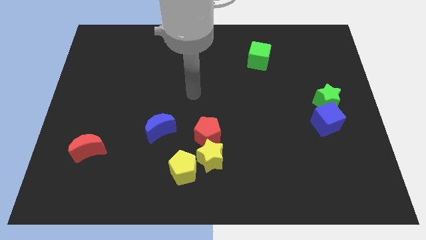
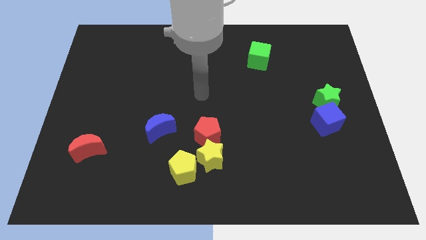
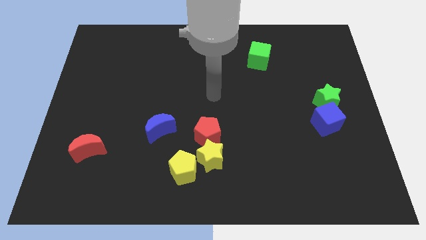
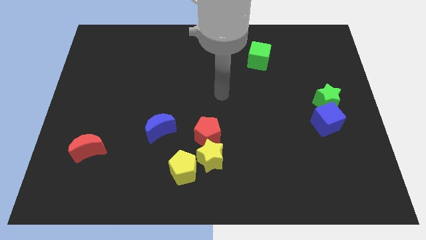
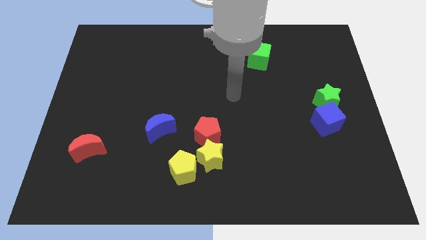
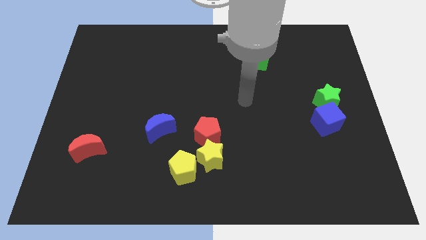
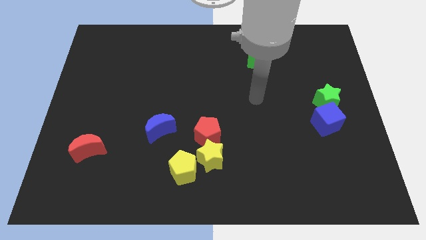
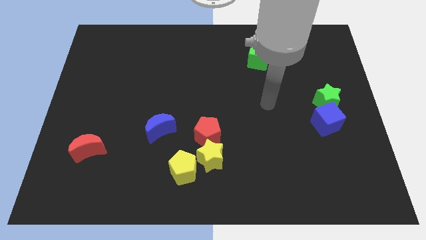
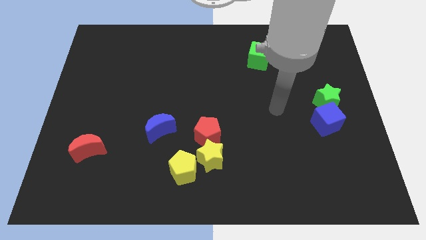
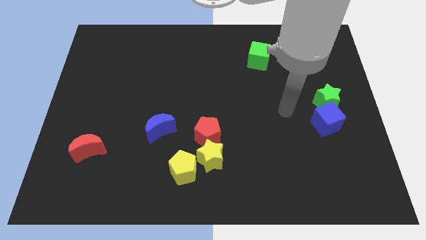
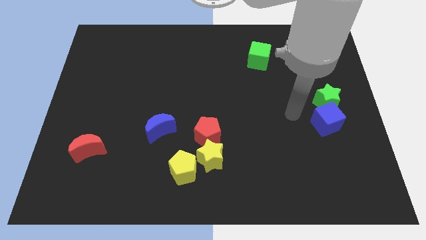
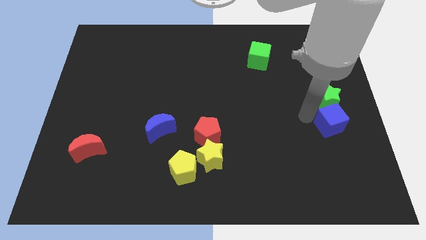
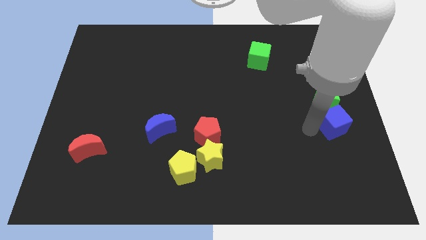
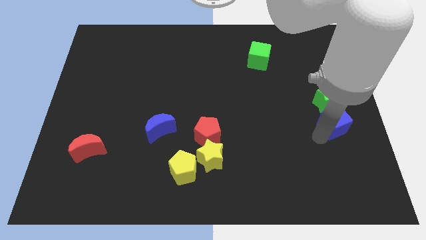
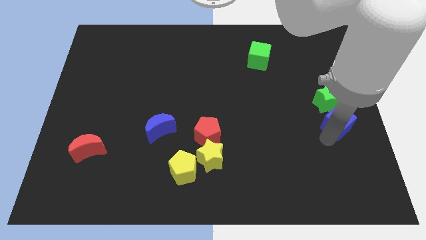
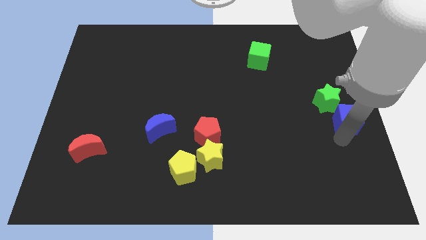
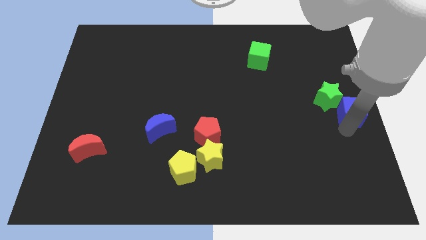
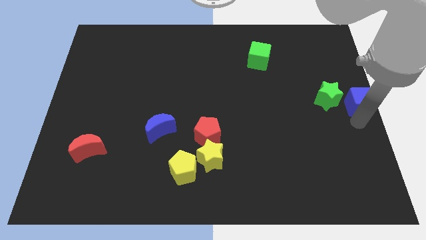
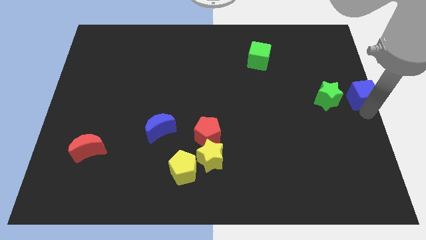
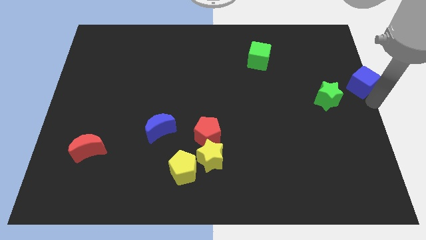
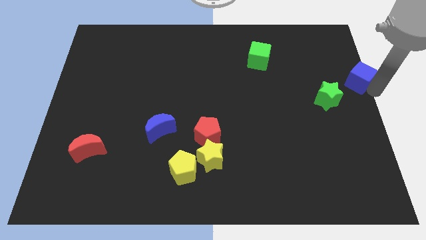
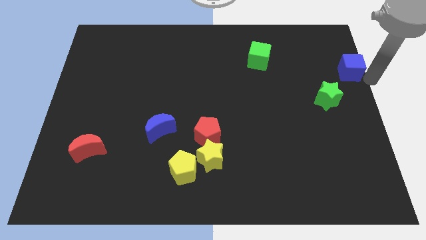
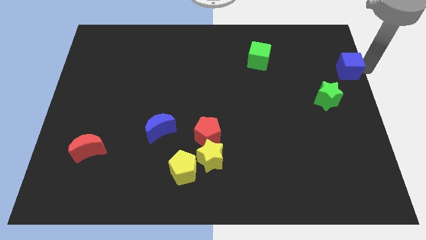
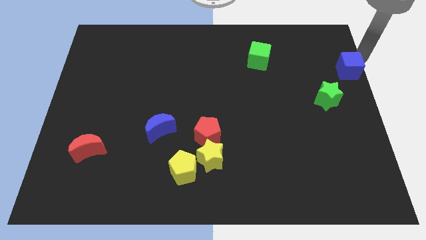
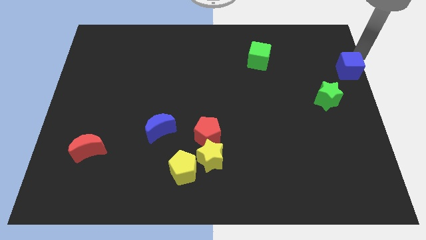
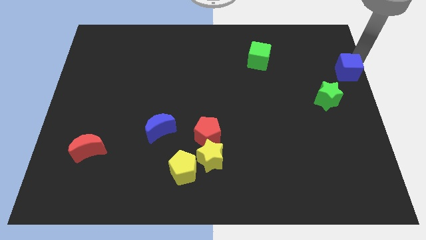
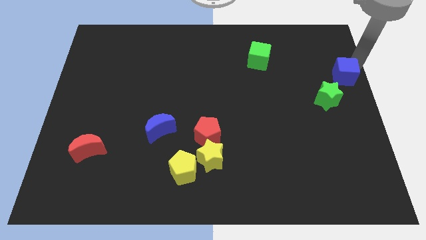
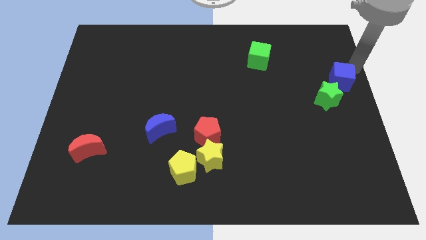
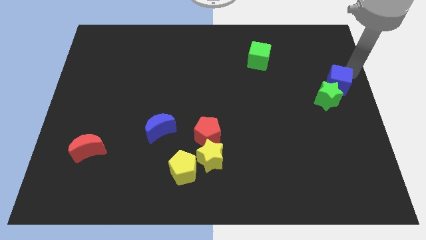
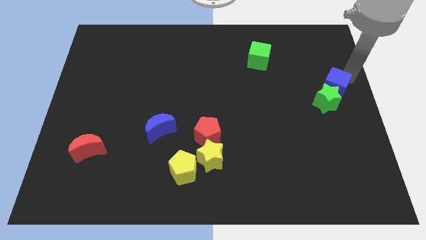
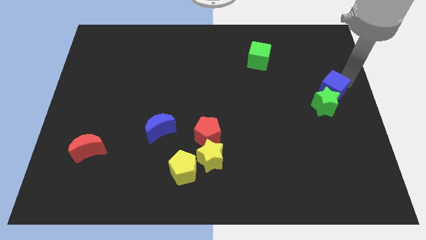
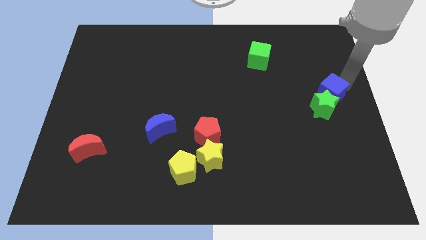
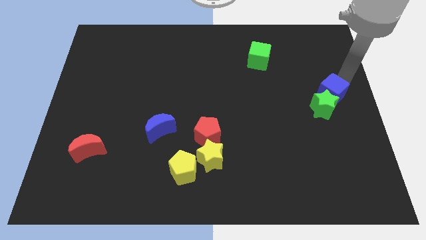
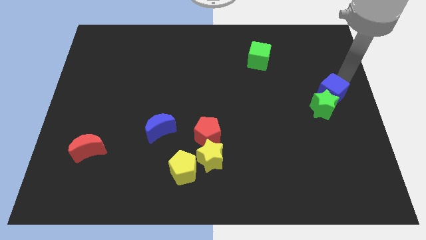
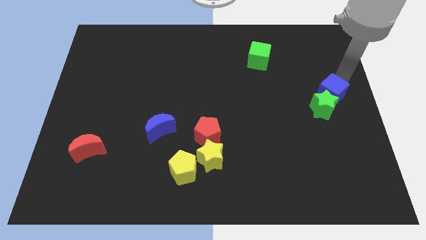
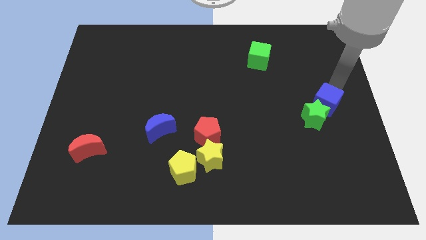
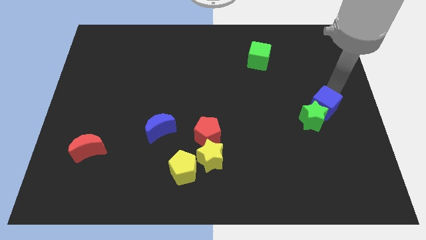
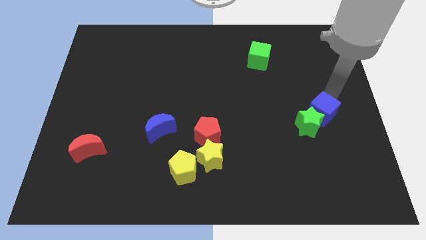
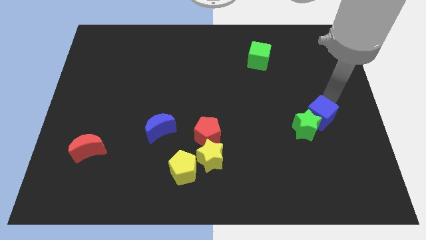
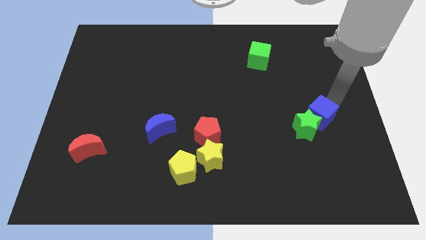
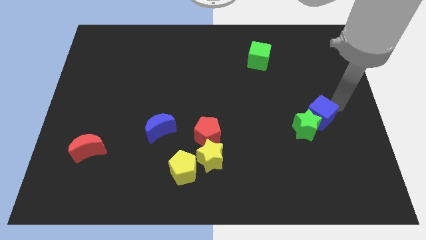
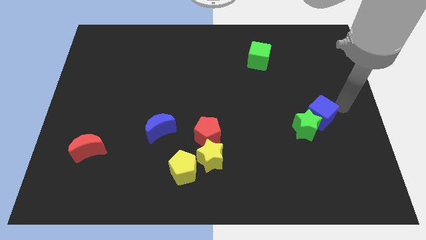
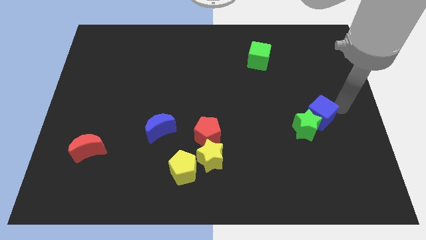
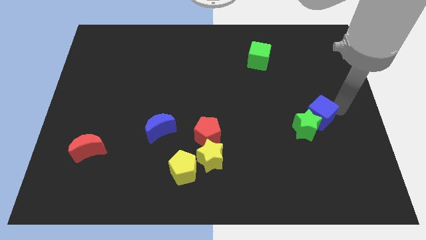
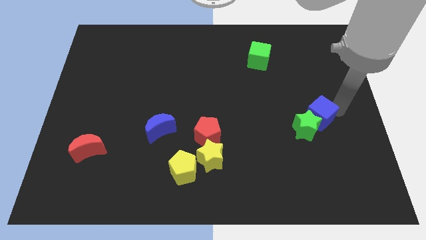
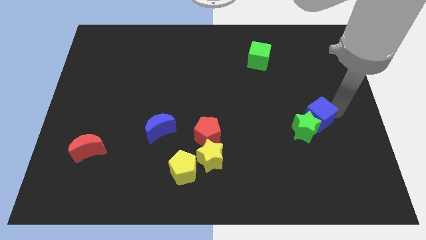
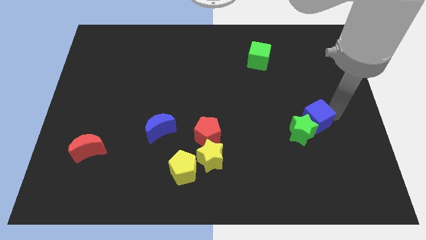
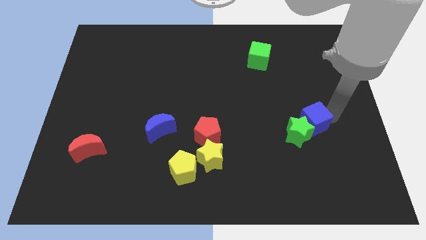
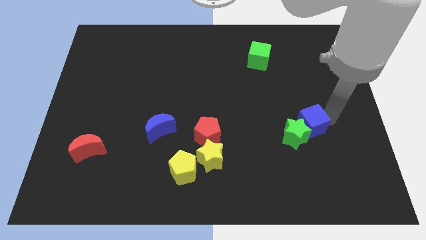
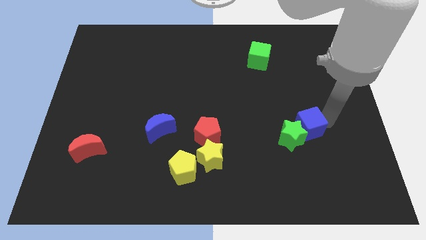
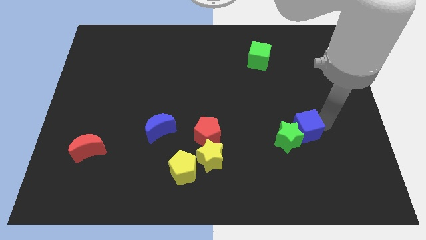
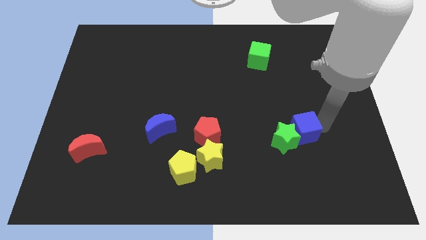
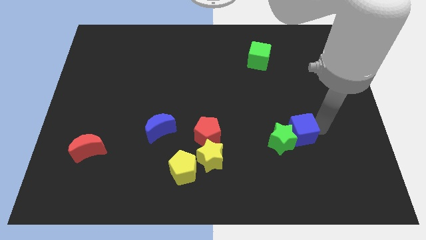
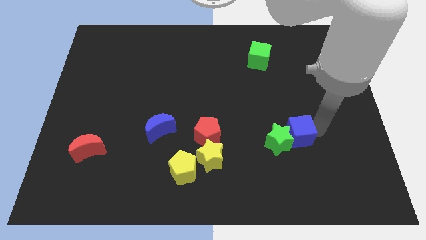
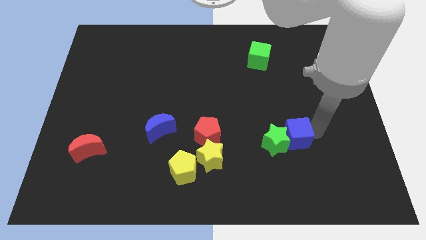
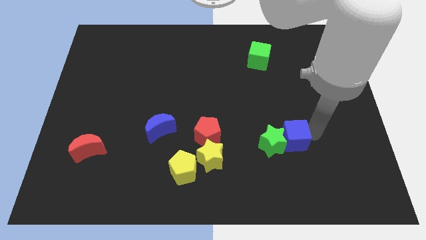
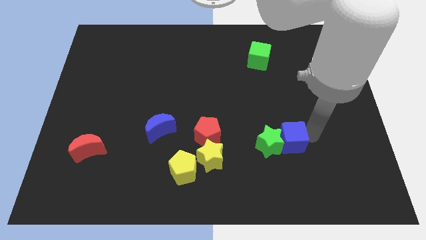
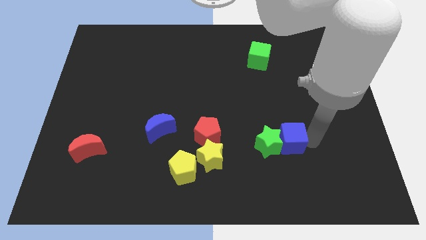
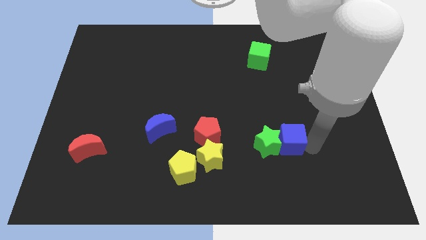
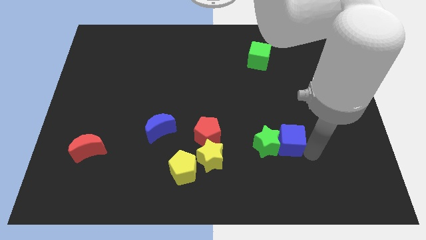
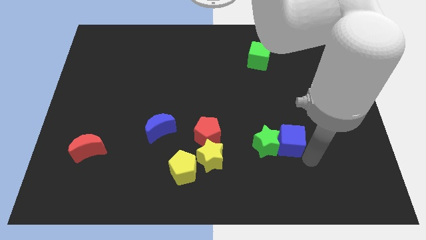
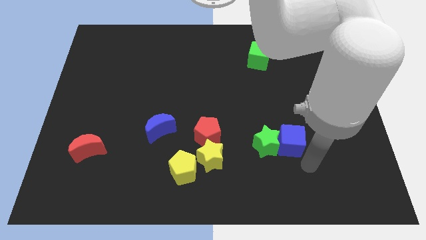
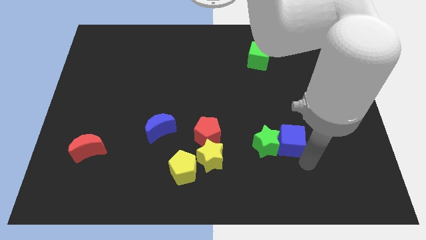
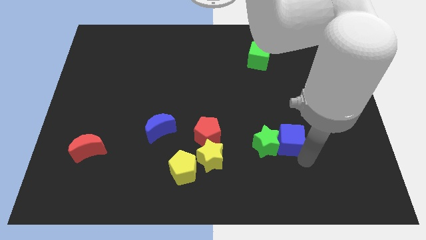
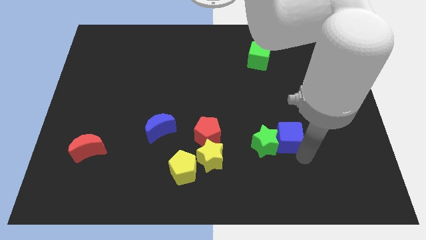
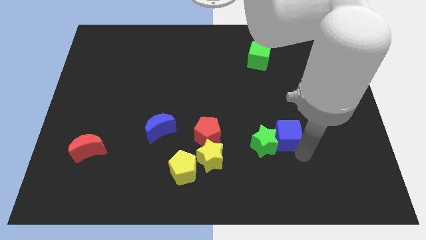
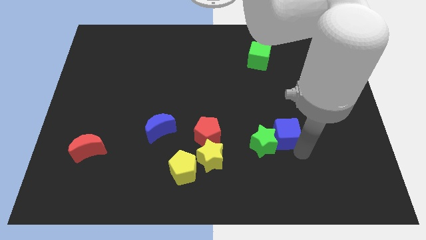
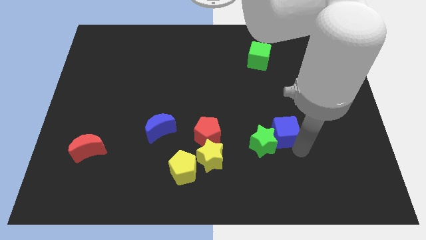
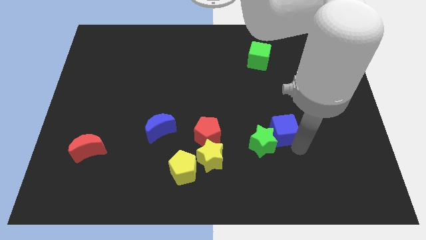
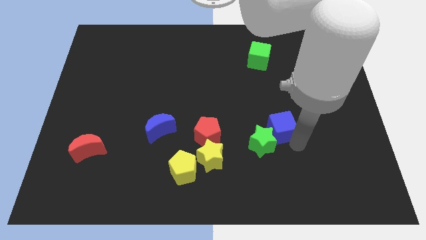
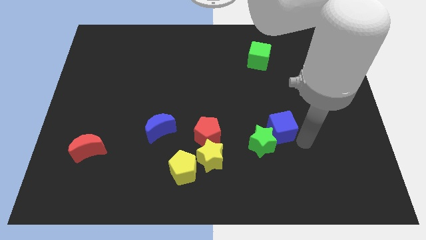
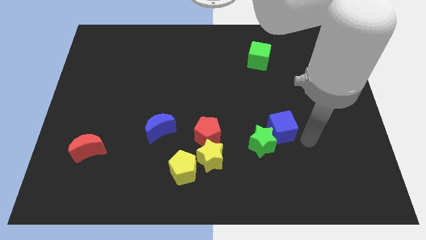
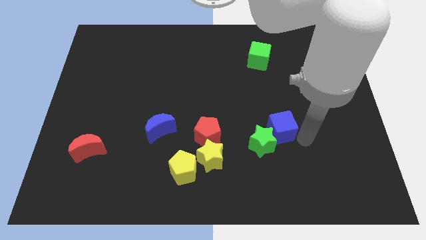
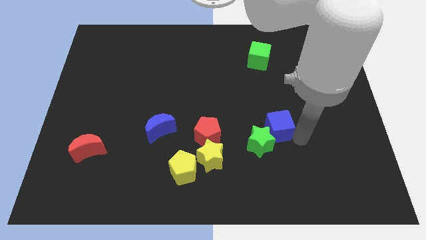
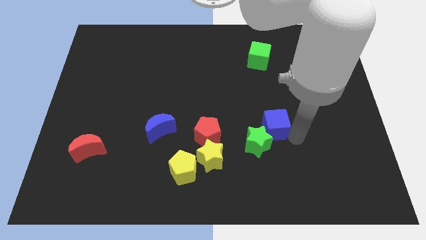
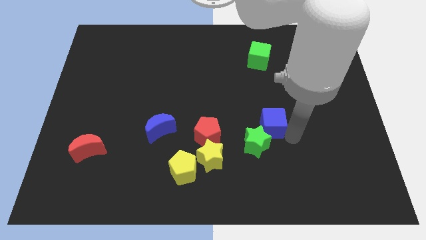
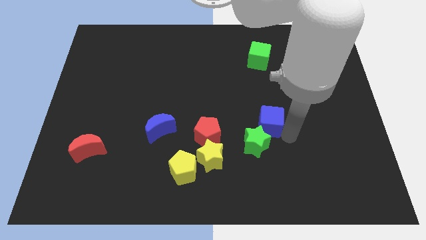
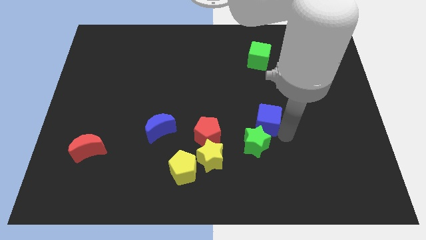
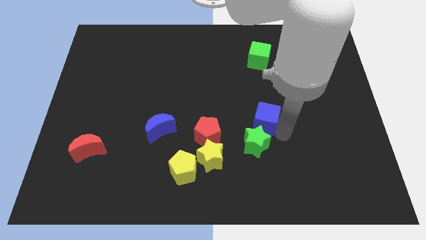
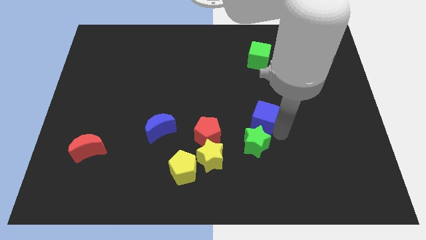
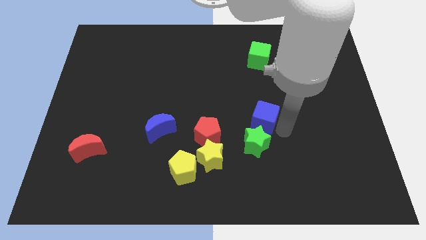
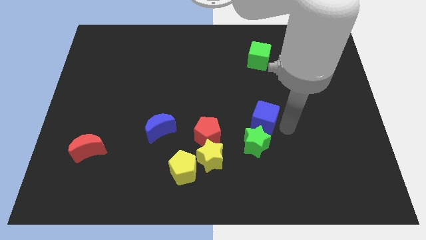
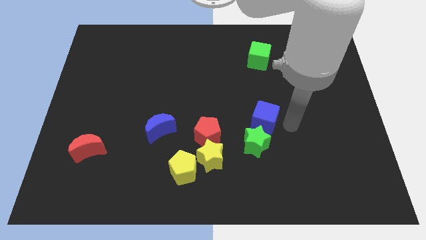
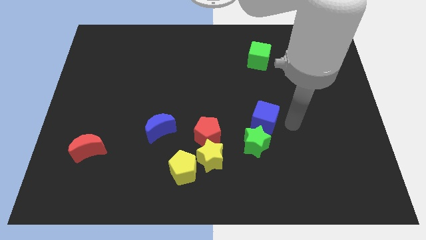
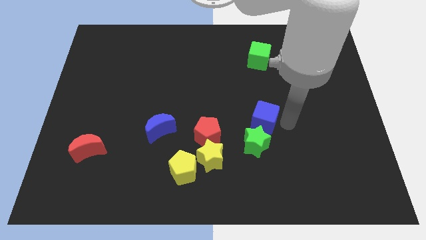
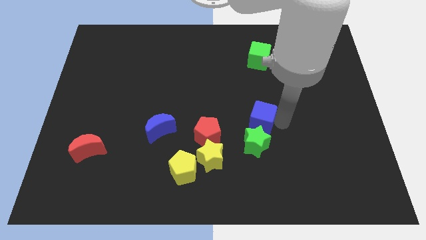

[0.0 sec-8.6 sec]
push the blue cube to the center
